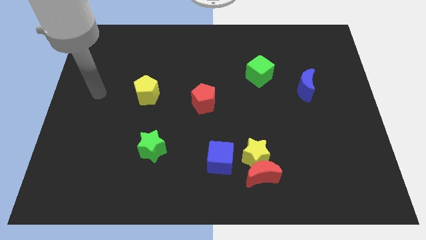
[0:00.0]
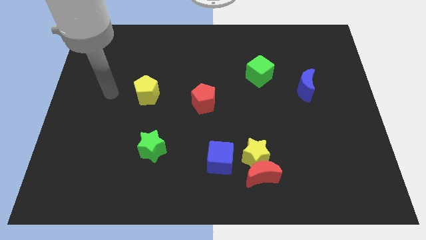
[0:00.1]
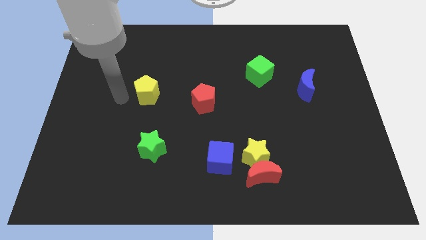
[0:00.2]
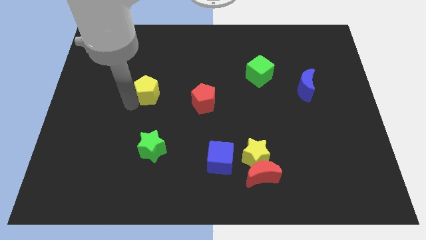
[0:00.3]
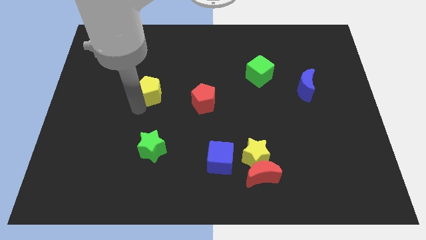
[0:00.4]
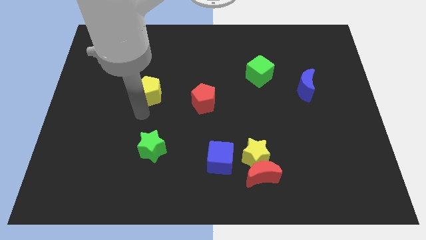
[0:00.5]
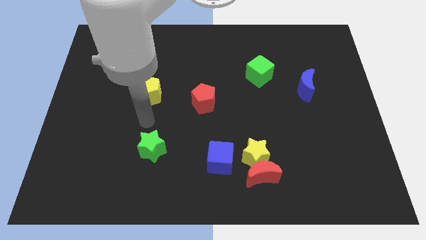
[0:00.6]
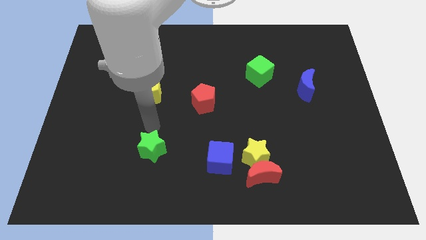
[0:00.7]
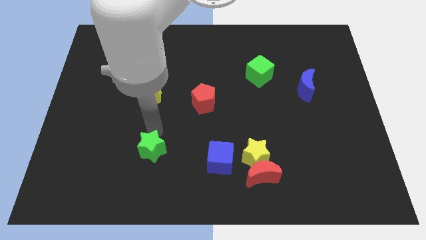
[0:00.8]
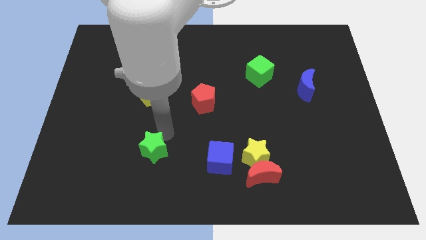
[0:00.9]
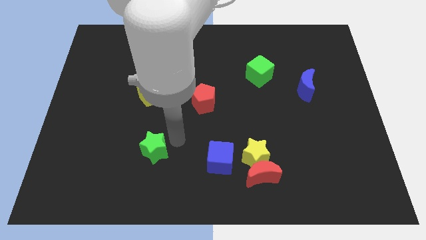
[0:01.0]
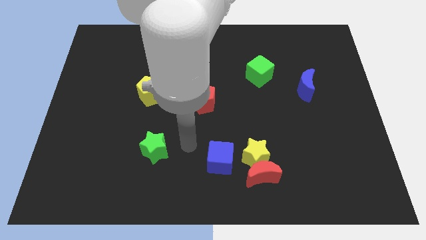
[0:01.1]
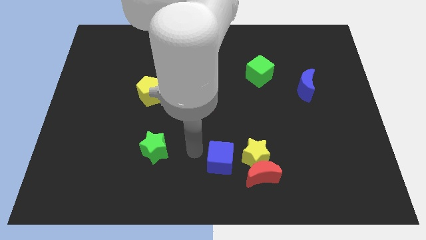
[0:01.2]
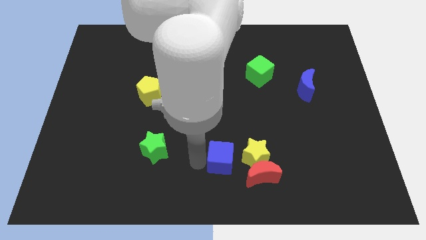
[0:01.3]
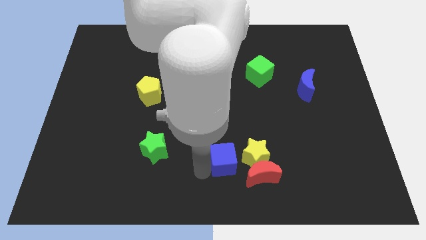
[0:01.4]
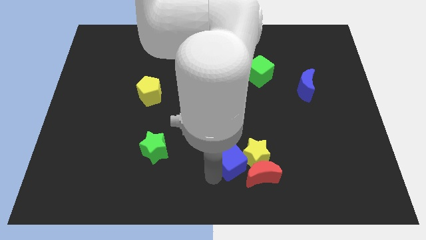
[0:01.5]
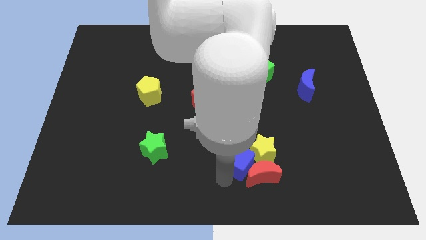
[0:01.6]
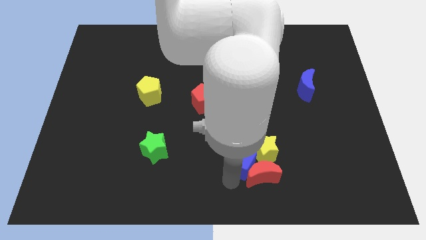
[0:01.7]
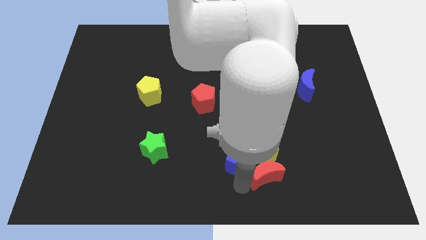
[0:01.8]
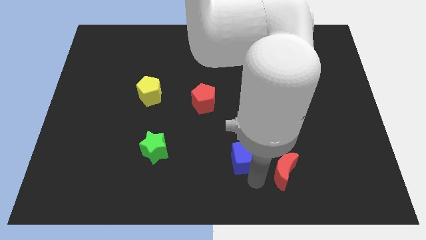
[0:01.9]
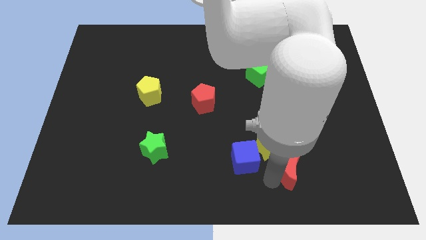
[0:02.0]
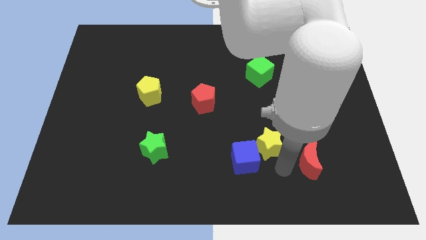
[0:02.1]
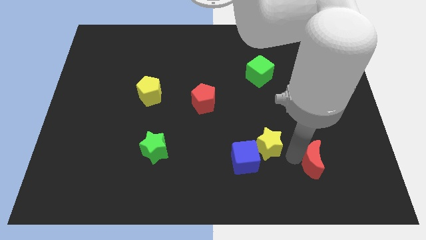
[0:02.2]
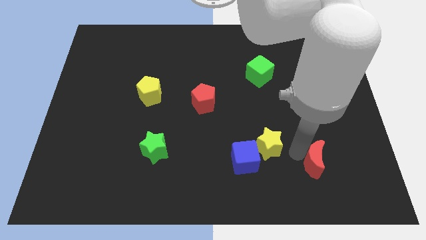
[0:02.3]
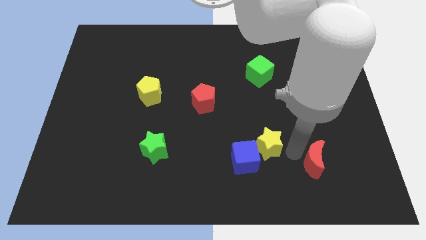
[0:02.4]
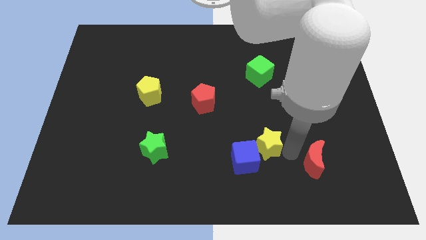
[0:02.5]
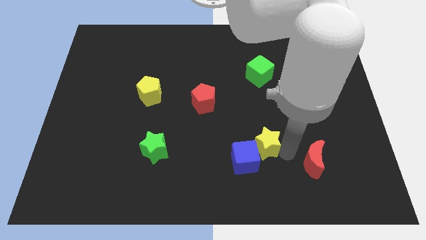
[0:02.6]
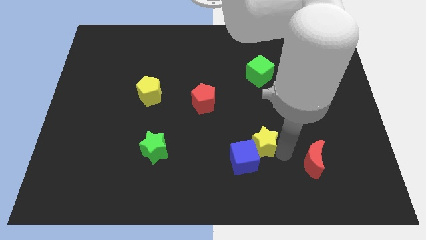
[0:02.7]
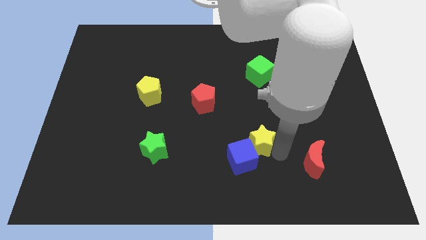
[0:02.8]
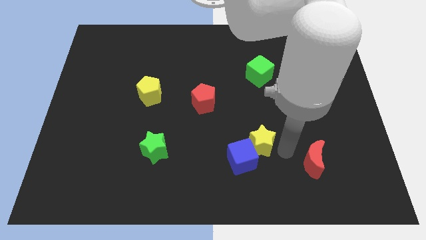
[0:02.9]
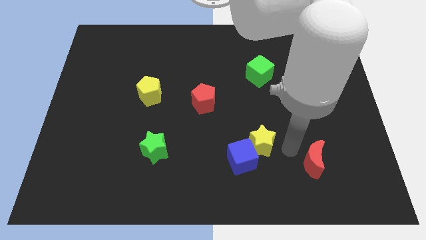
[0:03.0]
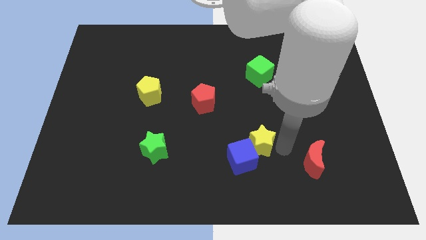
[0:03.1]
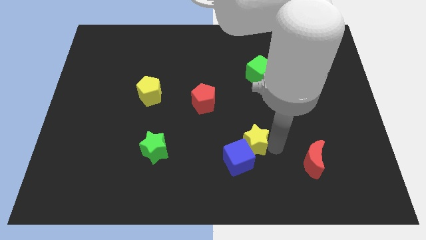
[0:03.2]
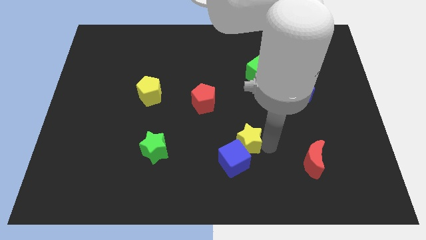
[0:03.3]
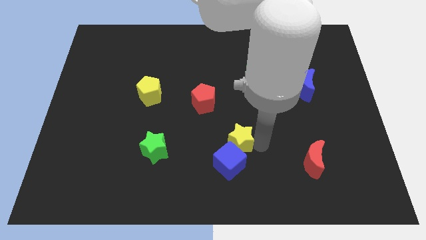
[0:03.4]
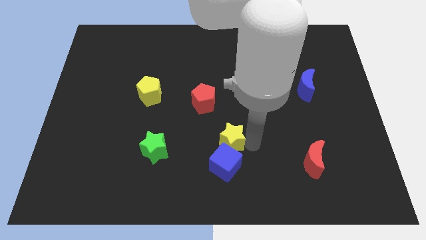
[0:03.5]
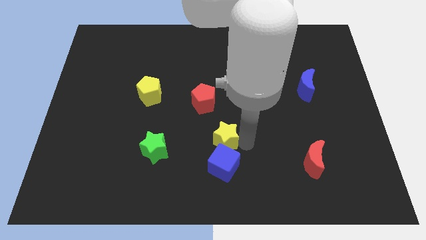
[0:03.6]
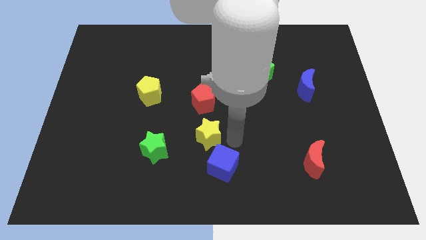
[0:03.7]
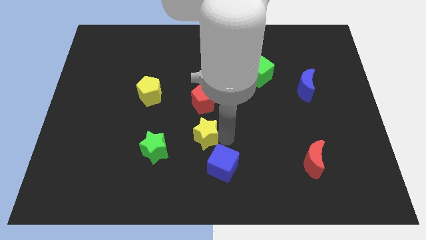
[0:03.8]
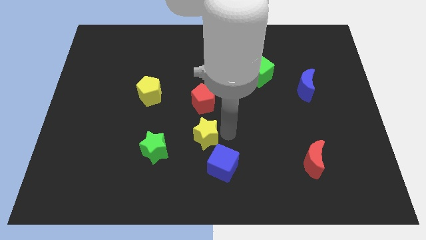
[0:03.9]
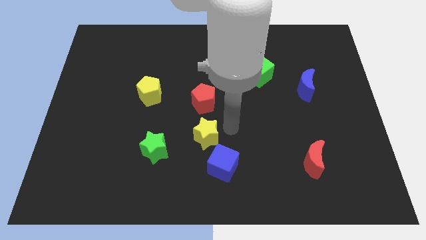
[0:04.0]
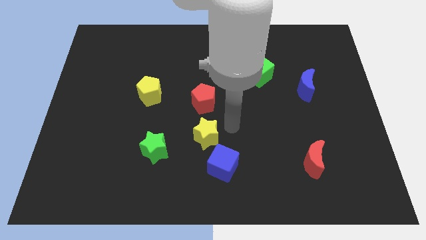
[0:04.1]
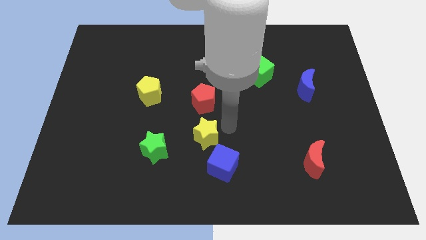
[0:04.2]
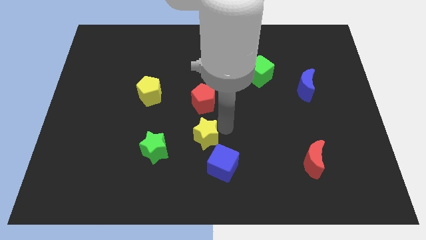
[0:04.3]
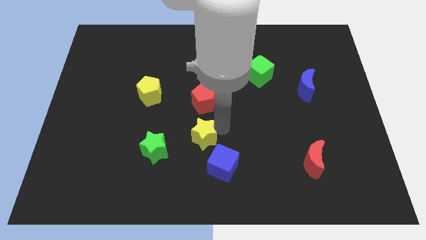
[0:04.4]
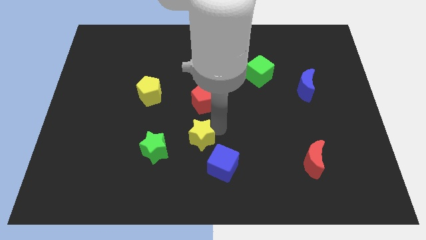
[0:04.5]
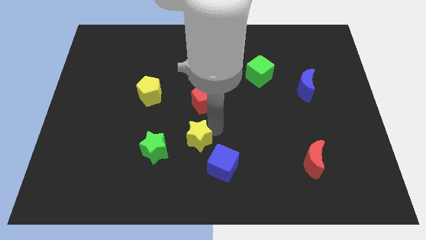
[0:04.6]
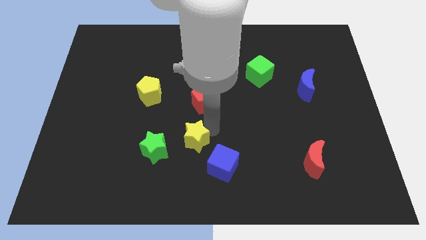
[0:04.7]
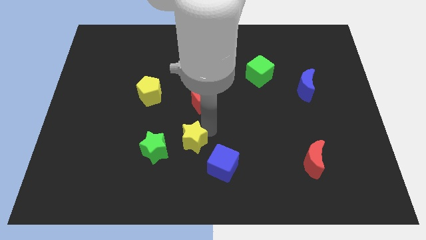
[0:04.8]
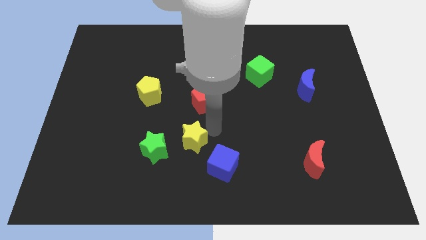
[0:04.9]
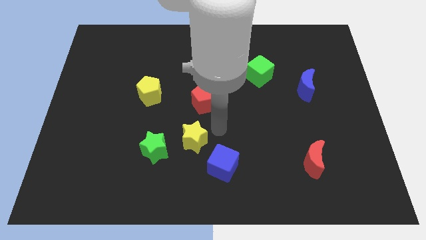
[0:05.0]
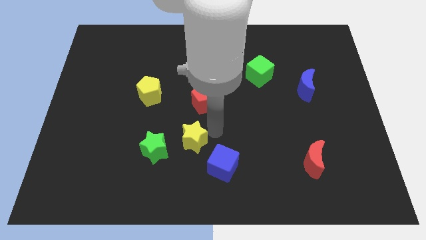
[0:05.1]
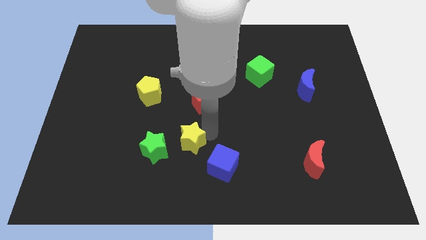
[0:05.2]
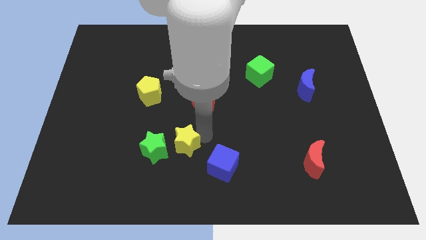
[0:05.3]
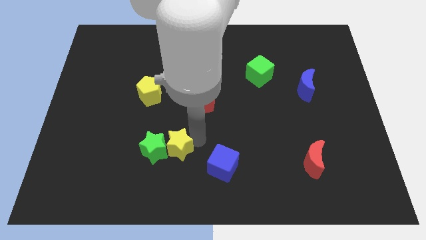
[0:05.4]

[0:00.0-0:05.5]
push the yellow star next to the green star

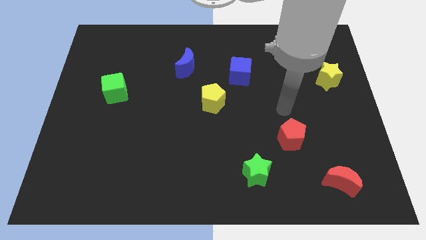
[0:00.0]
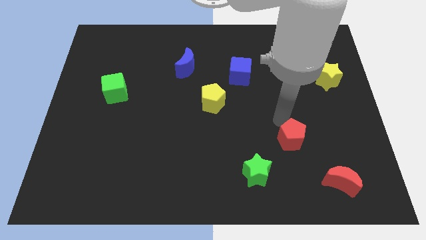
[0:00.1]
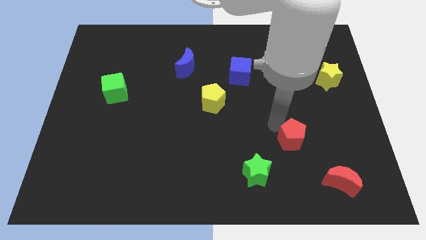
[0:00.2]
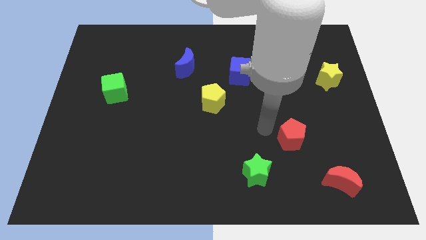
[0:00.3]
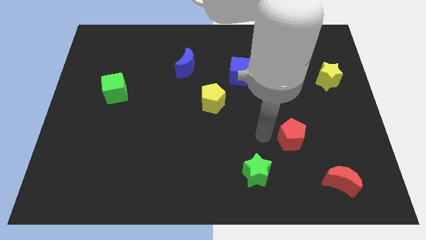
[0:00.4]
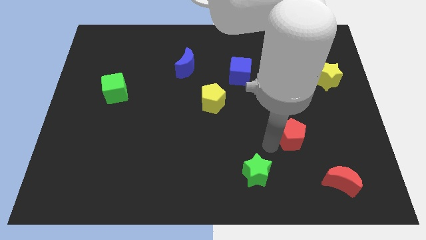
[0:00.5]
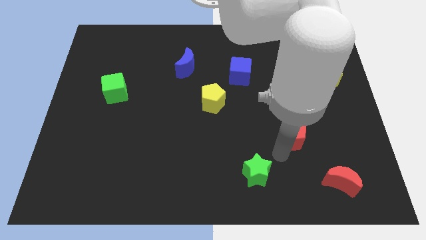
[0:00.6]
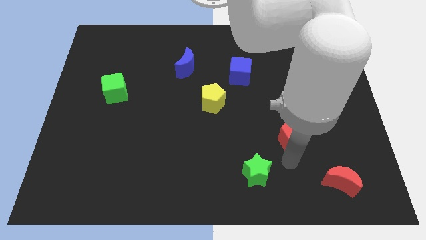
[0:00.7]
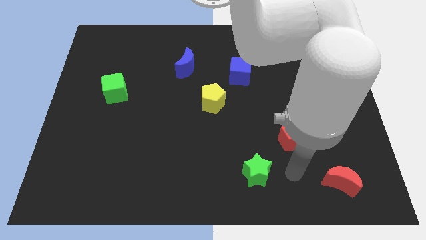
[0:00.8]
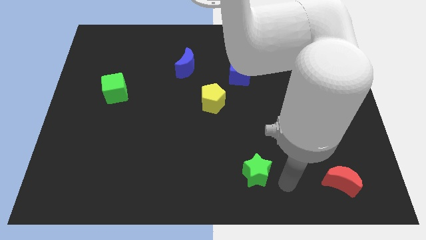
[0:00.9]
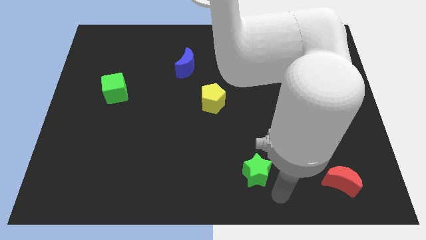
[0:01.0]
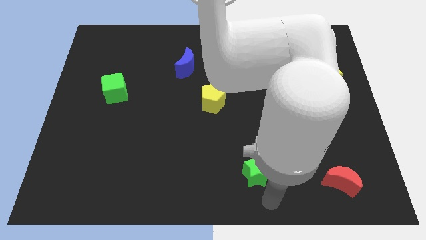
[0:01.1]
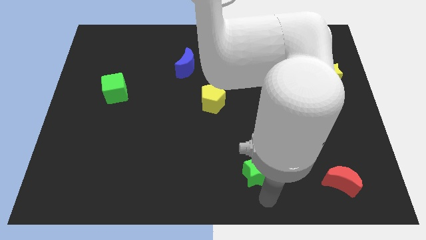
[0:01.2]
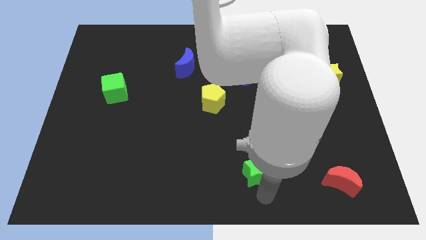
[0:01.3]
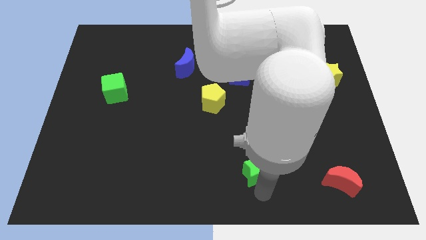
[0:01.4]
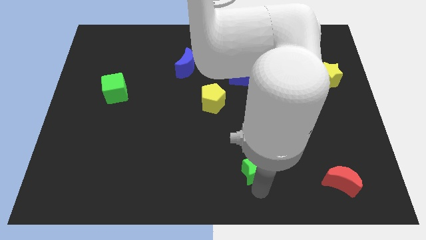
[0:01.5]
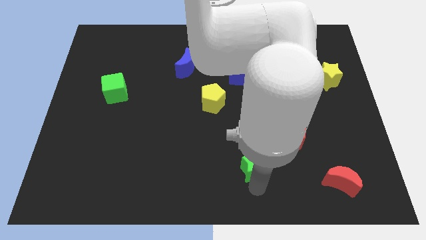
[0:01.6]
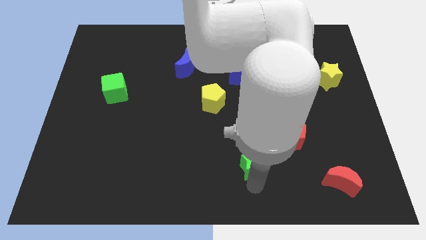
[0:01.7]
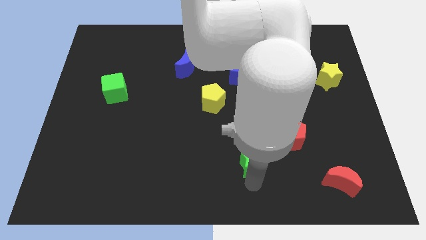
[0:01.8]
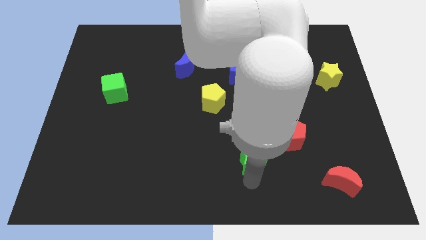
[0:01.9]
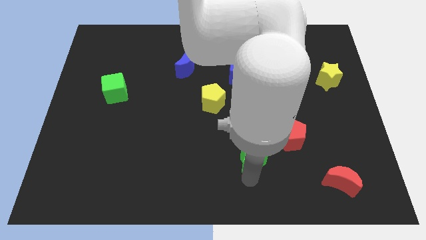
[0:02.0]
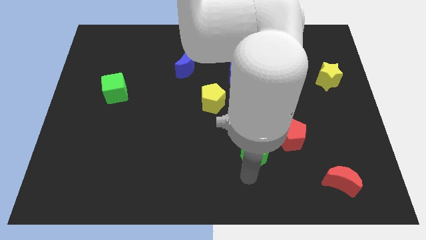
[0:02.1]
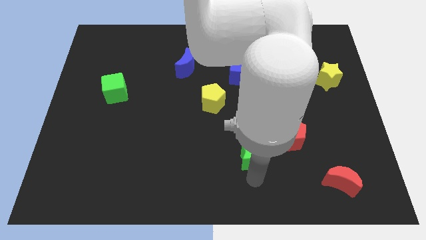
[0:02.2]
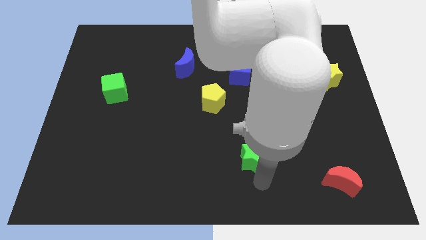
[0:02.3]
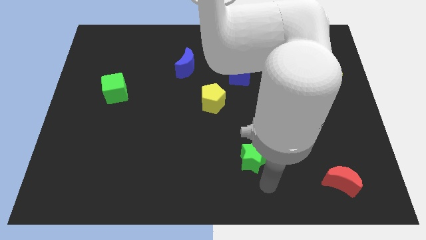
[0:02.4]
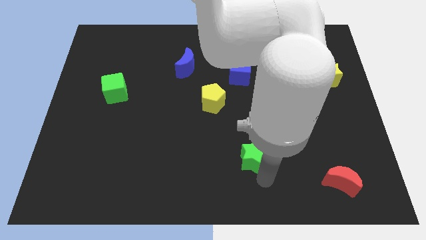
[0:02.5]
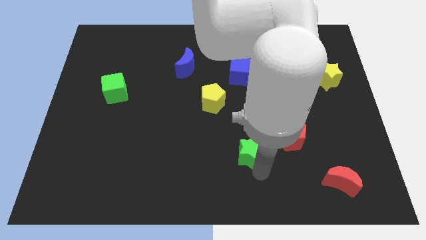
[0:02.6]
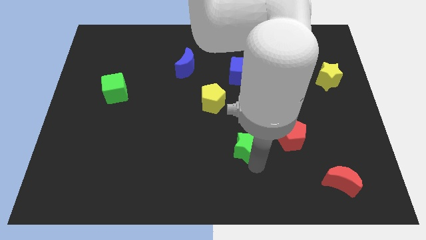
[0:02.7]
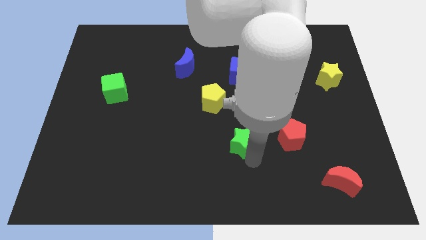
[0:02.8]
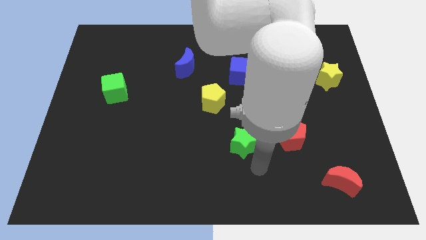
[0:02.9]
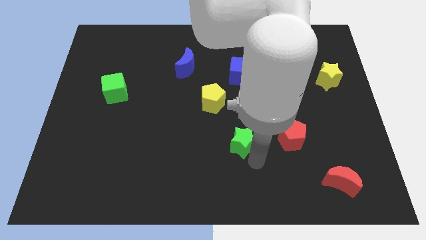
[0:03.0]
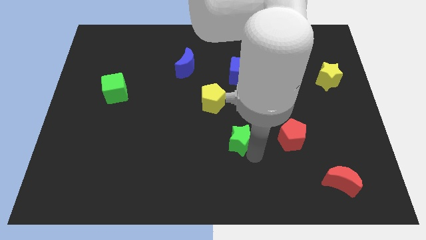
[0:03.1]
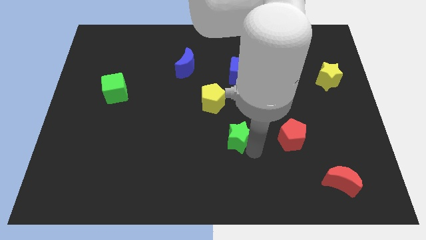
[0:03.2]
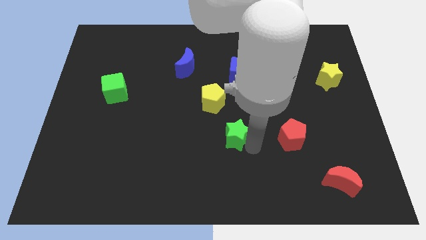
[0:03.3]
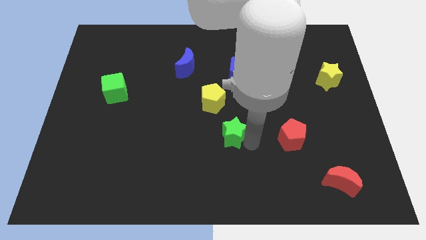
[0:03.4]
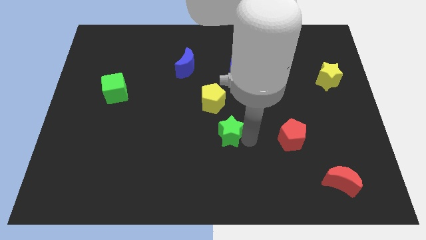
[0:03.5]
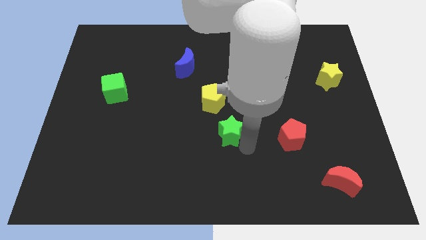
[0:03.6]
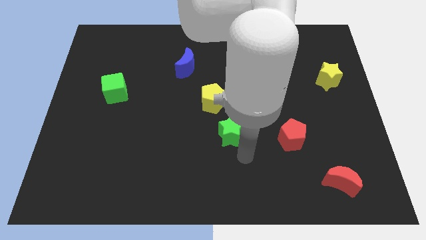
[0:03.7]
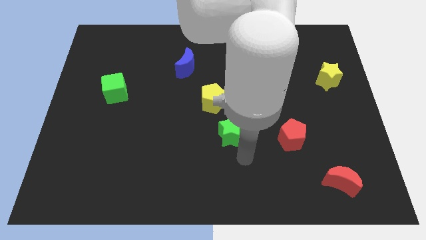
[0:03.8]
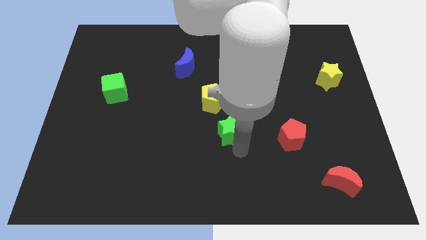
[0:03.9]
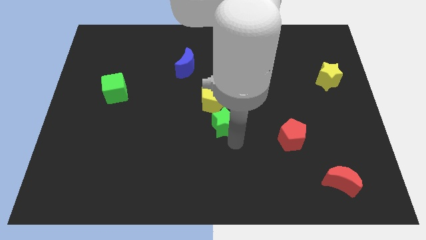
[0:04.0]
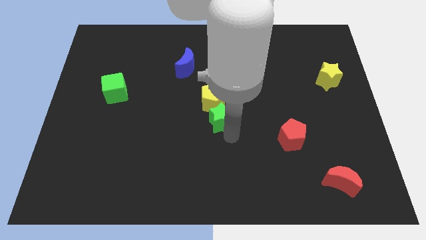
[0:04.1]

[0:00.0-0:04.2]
move the green star towards the yellow pentagon
